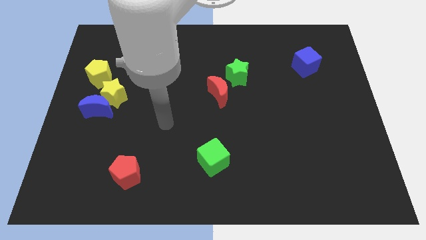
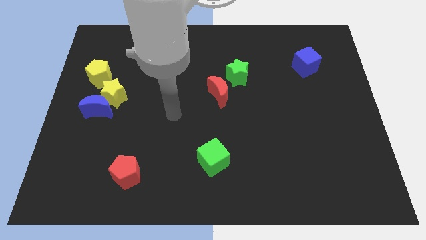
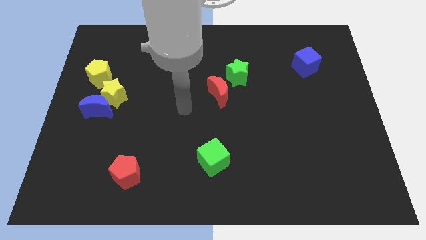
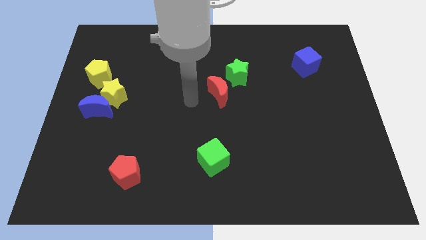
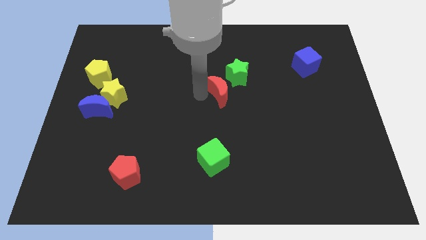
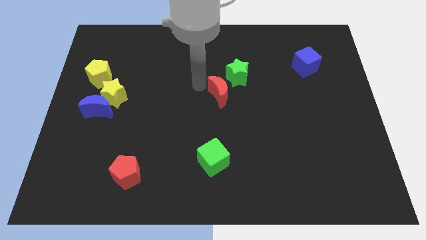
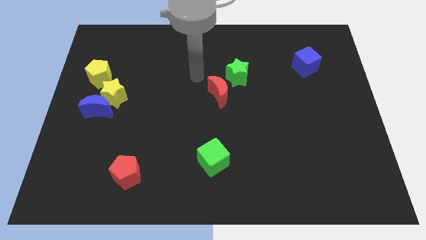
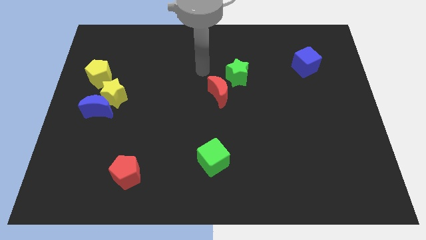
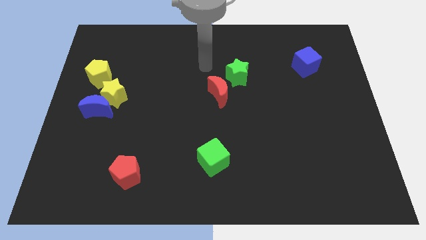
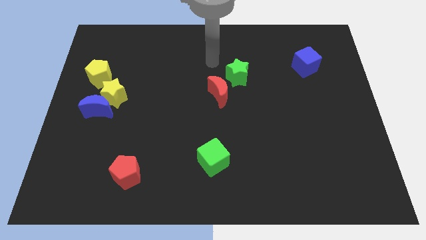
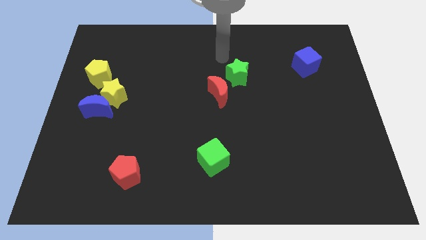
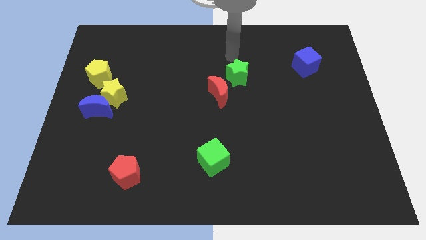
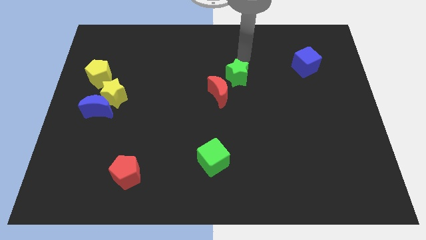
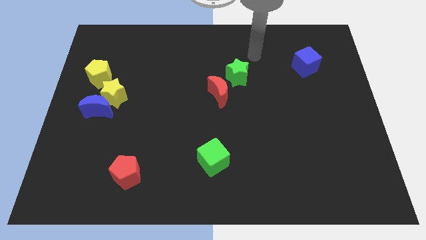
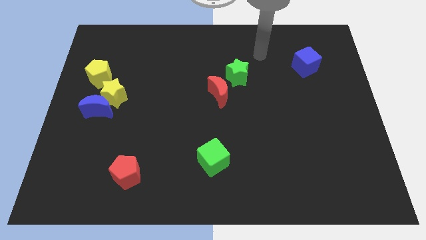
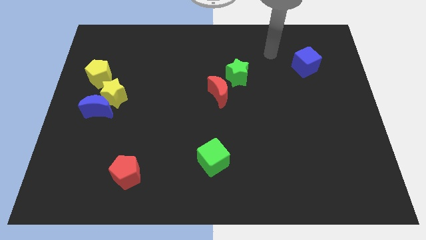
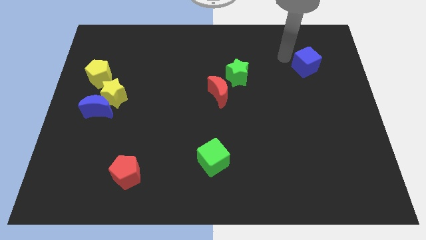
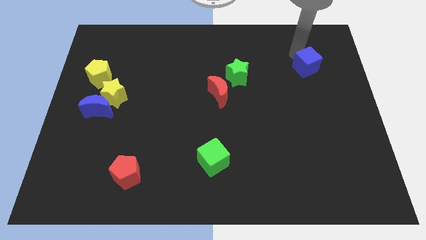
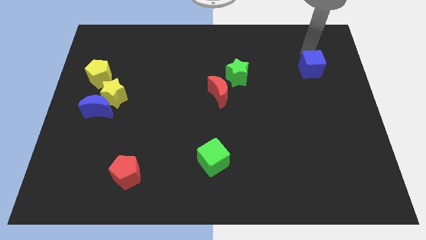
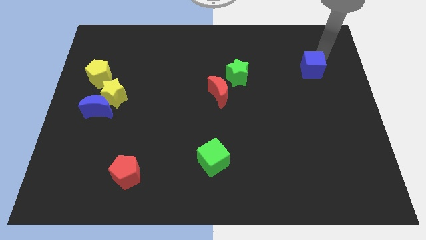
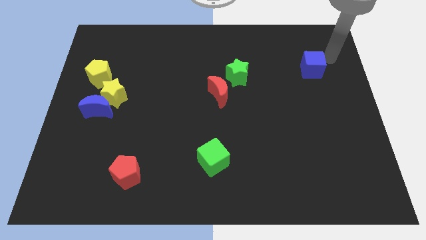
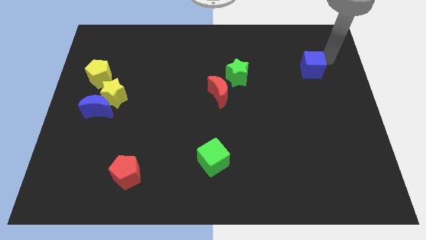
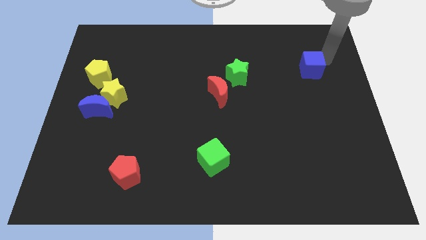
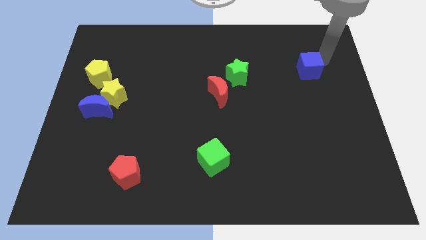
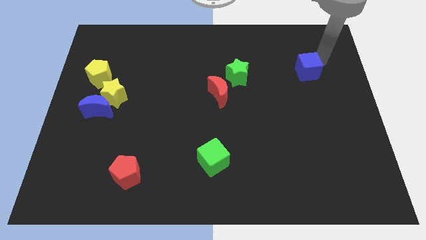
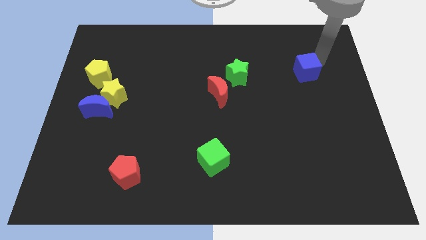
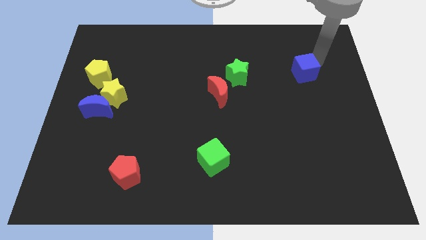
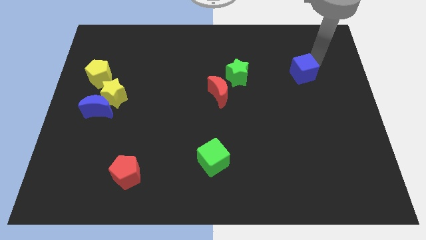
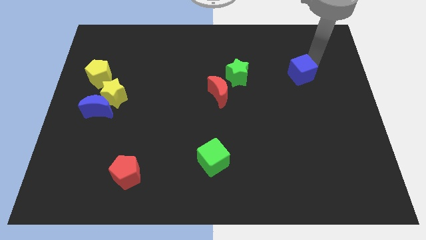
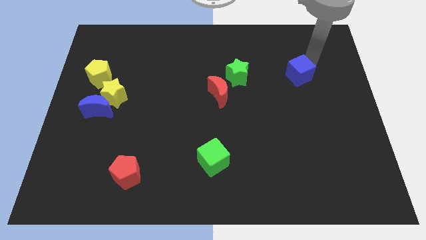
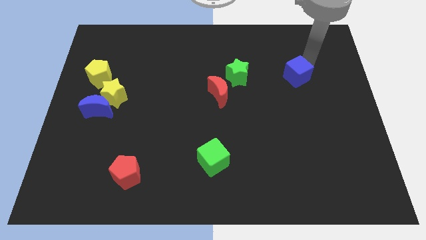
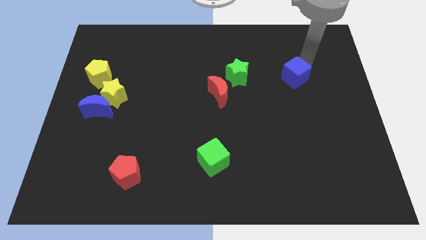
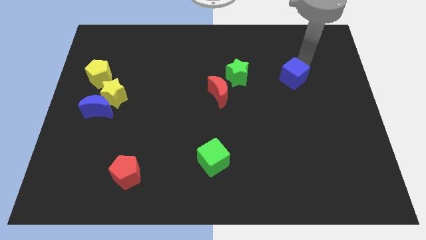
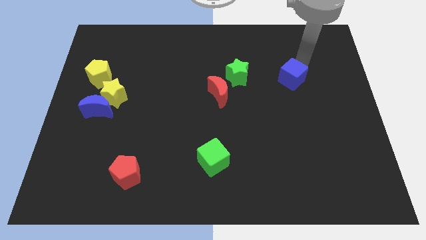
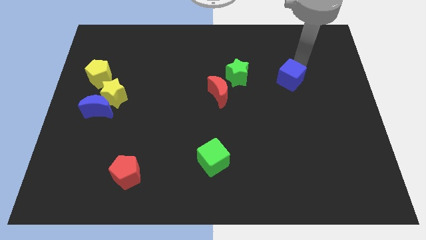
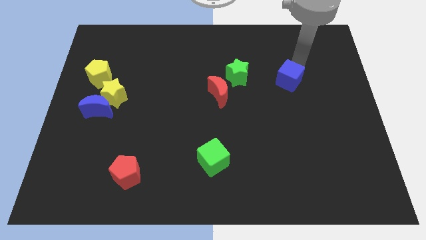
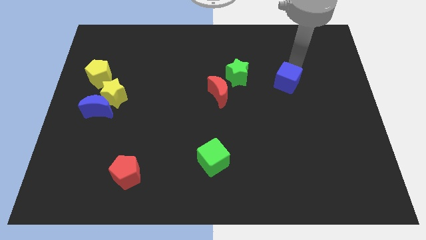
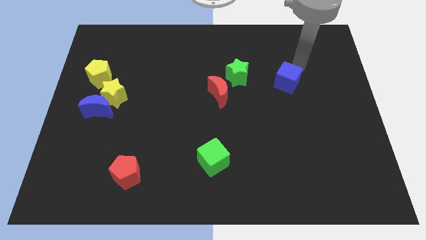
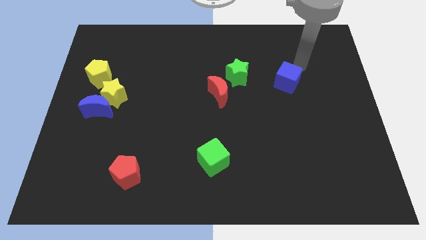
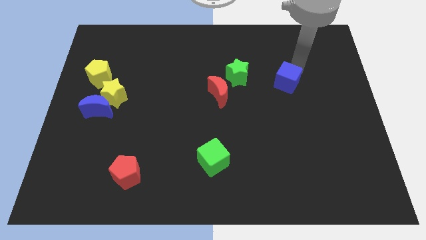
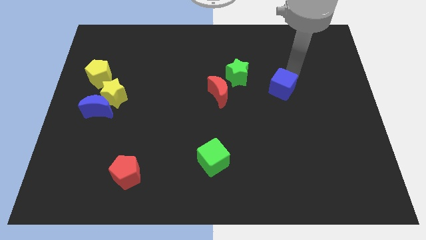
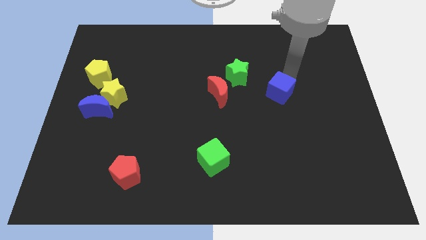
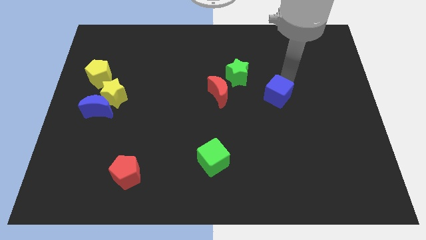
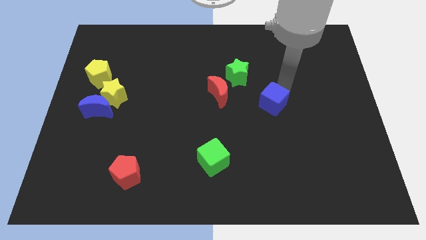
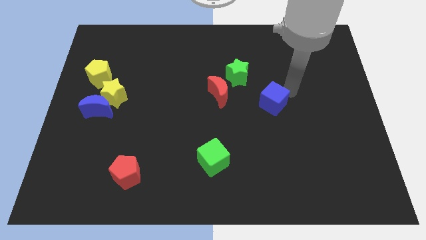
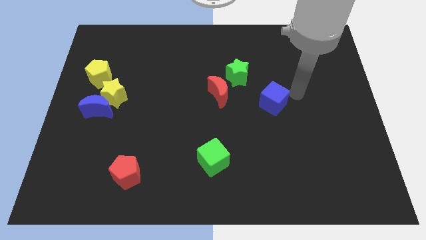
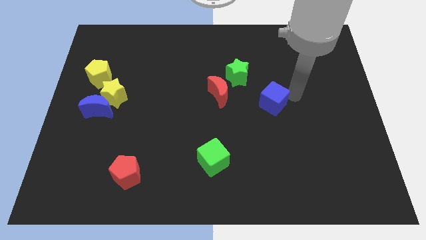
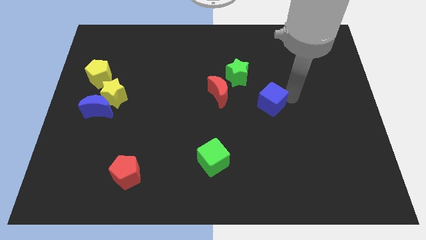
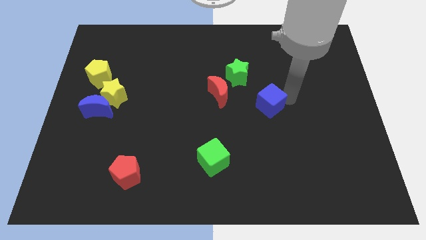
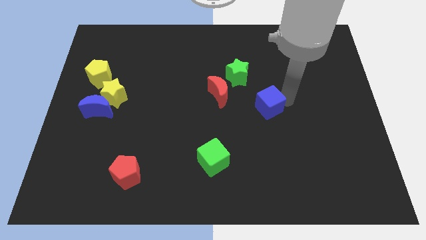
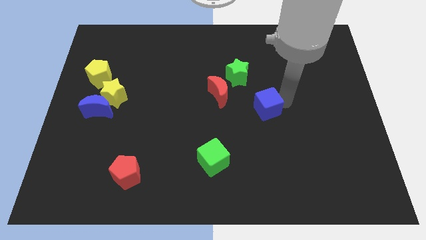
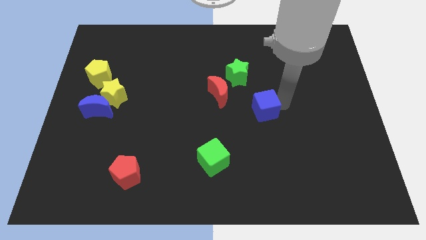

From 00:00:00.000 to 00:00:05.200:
put the blue cube to the bottom right side of the red moon

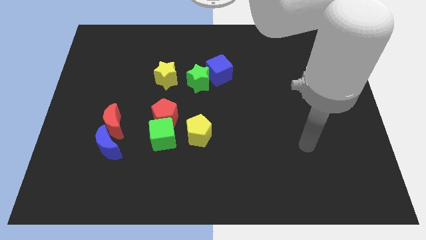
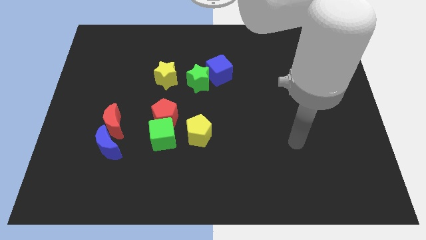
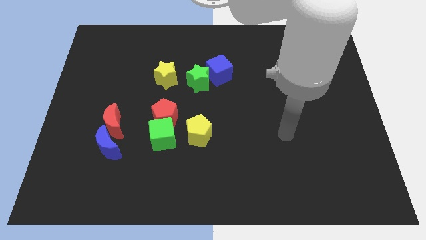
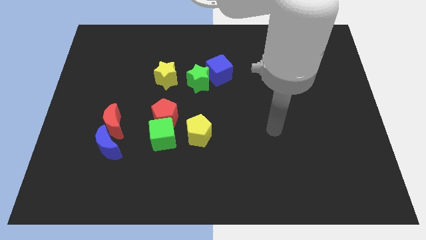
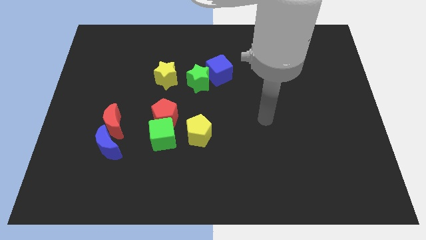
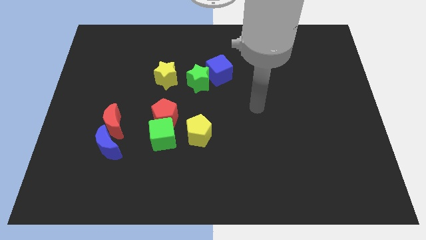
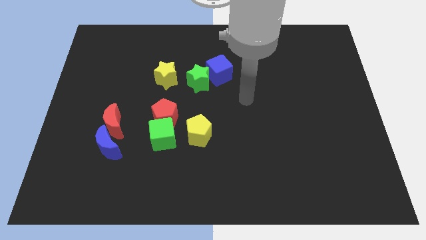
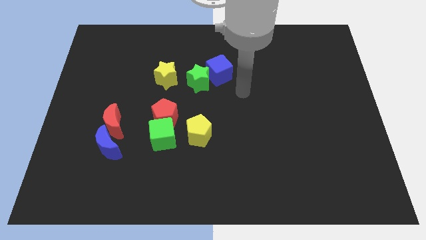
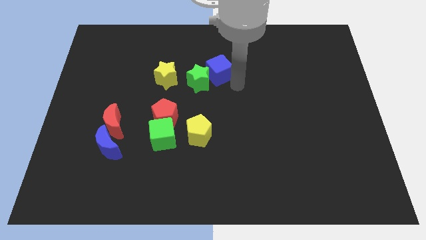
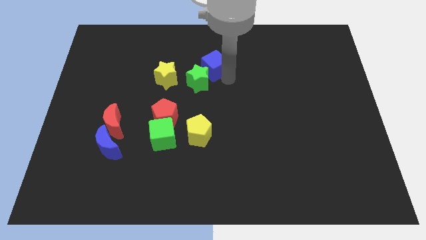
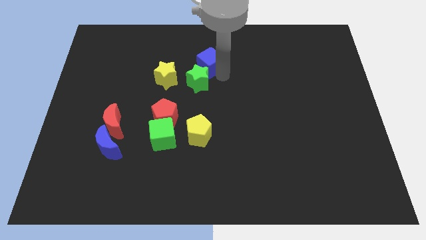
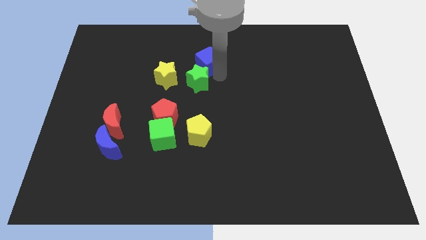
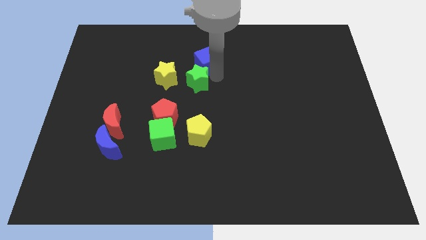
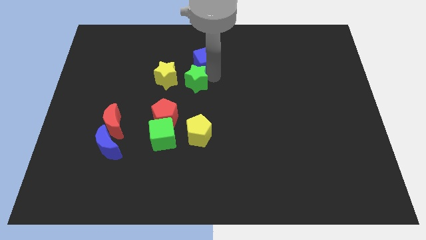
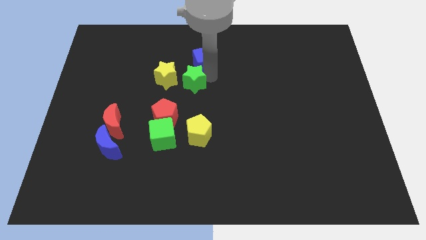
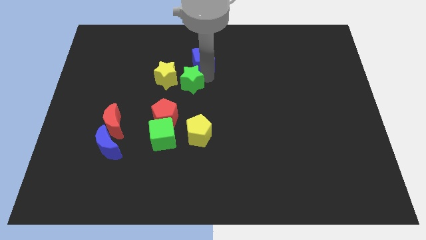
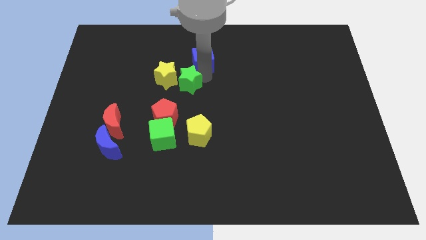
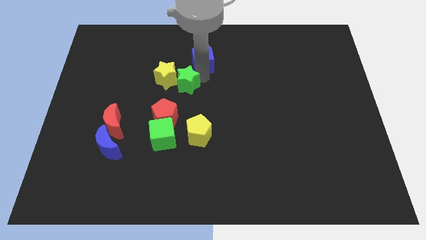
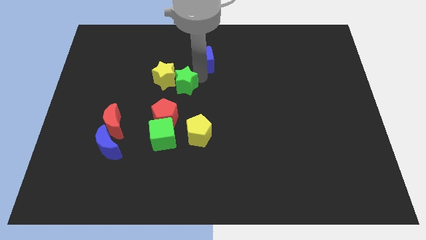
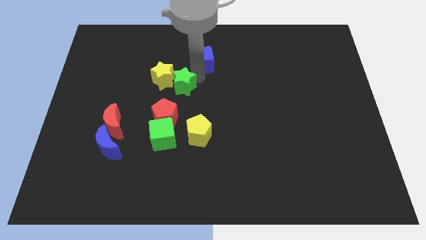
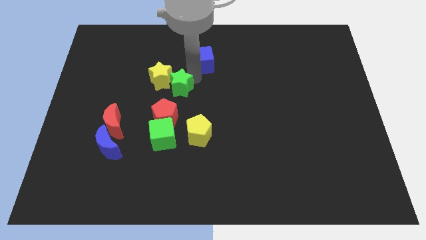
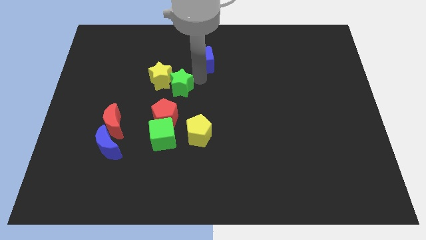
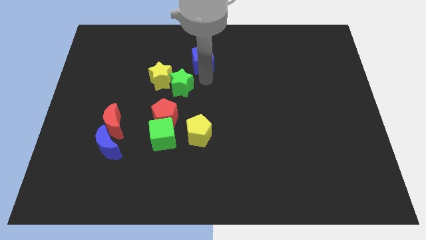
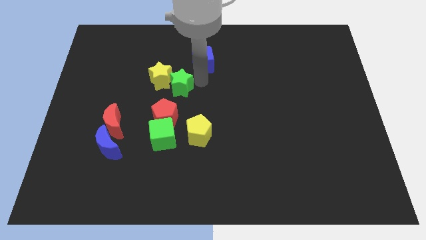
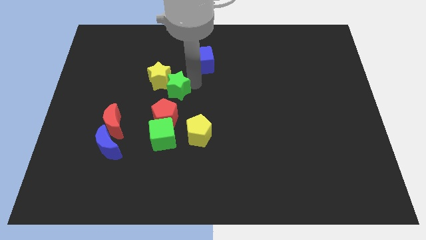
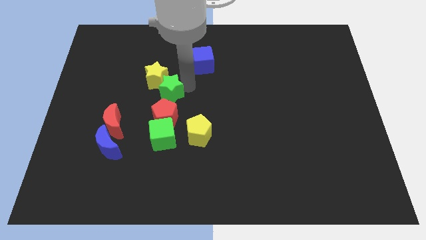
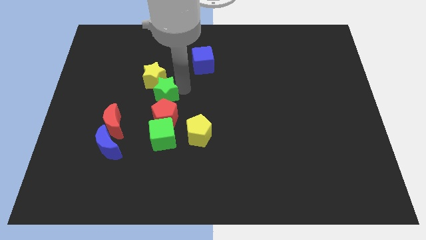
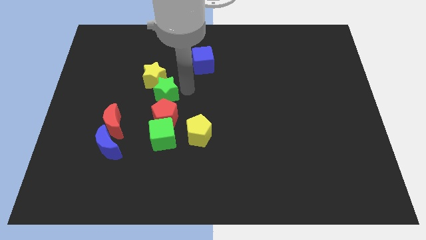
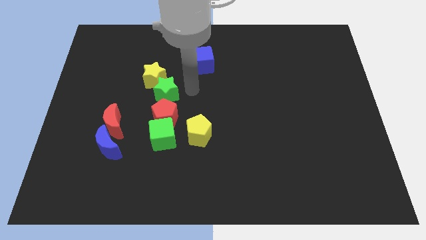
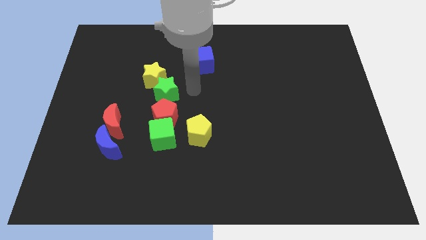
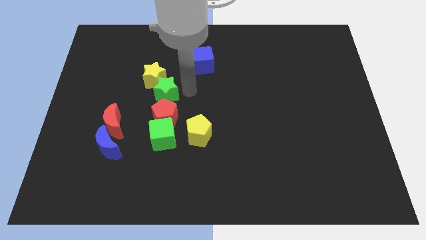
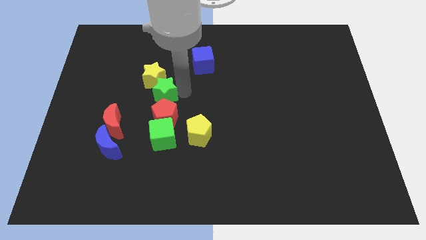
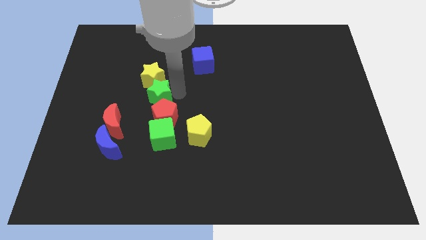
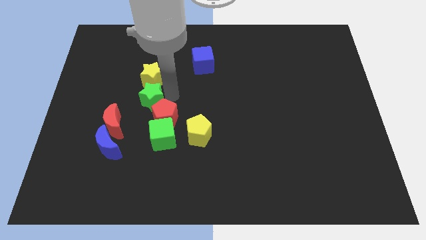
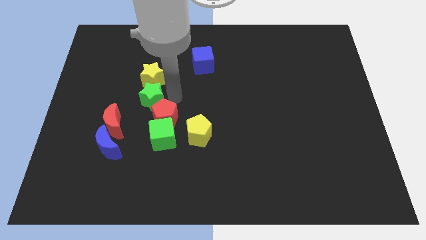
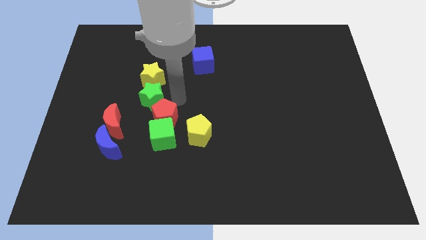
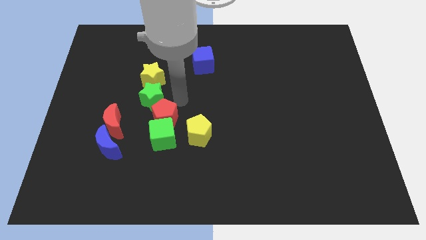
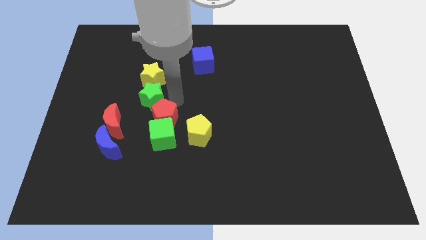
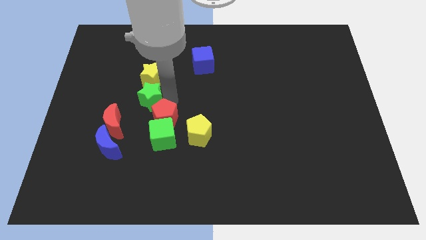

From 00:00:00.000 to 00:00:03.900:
put the green star just left of the red pentagon
